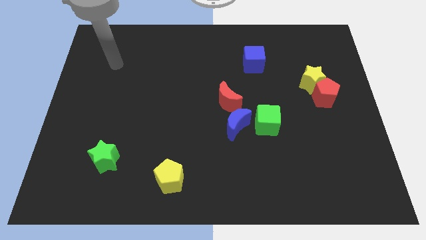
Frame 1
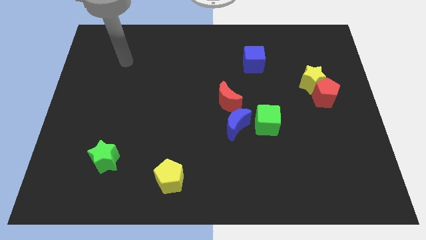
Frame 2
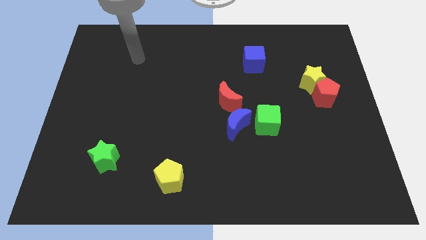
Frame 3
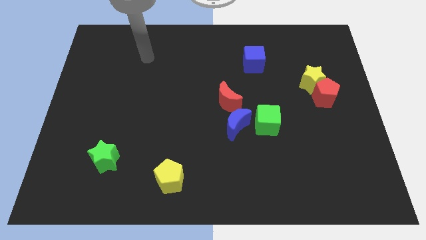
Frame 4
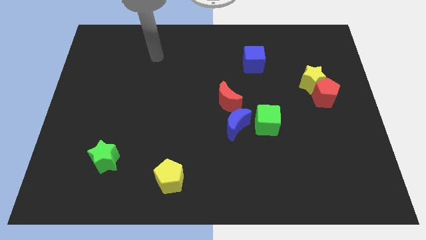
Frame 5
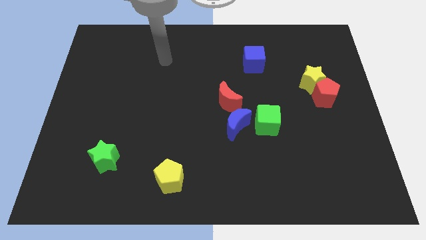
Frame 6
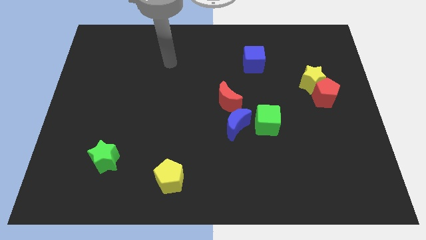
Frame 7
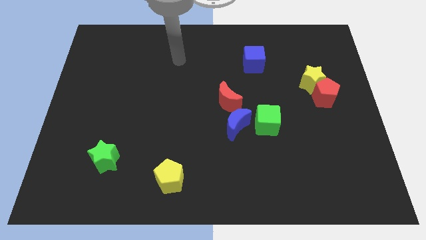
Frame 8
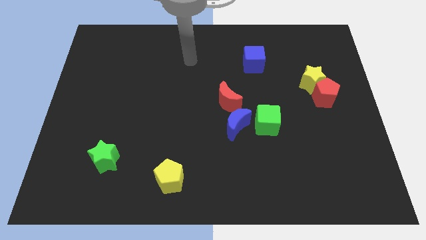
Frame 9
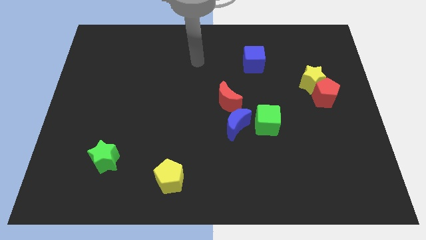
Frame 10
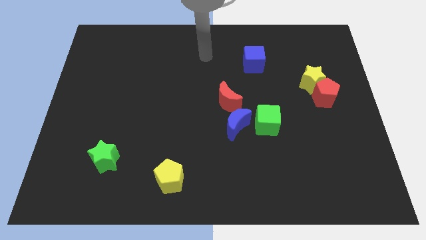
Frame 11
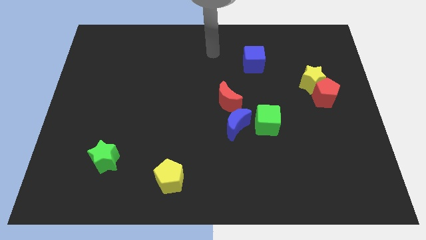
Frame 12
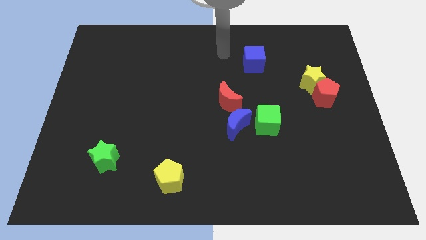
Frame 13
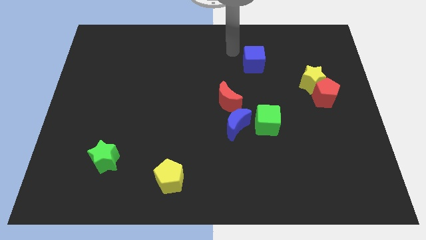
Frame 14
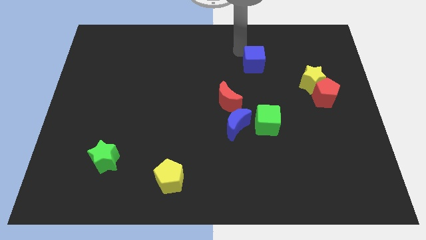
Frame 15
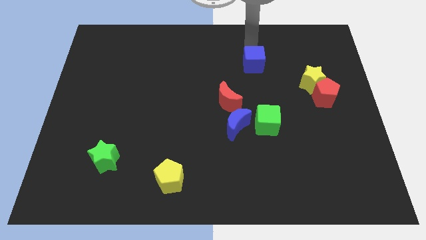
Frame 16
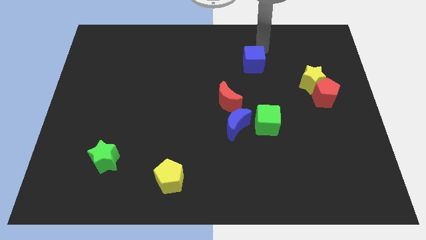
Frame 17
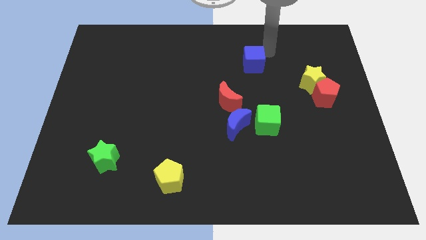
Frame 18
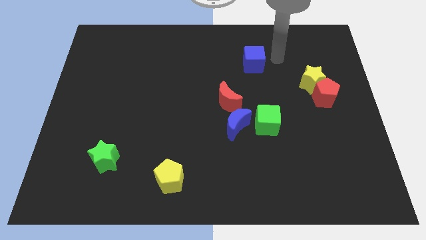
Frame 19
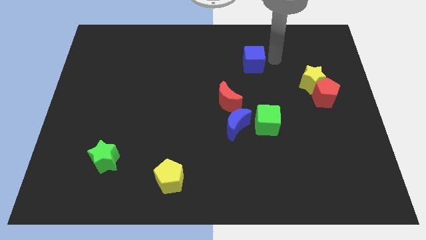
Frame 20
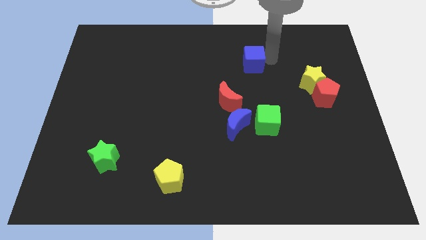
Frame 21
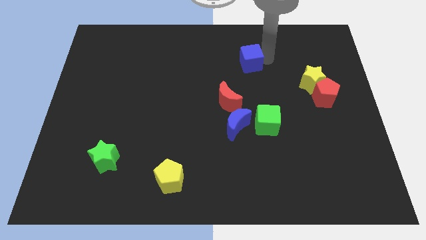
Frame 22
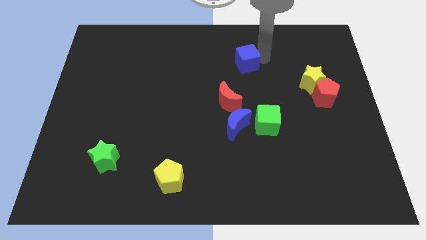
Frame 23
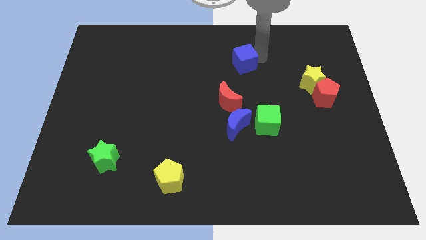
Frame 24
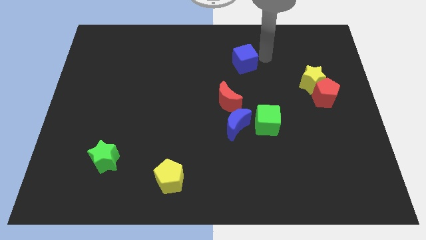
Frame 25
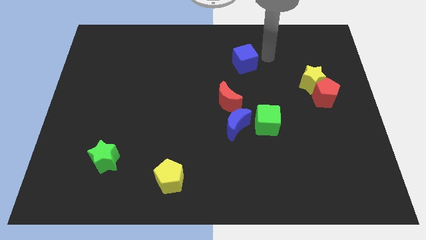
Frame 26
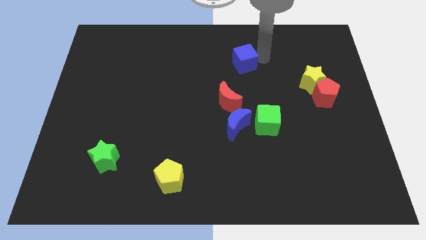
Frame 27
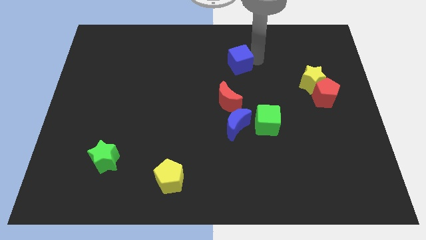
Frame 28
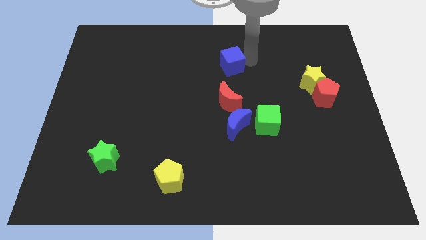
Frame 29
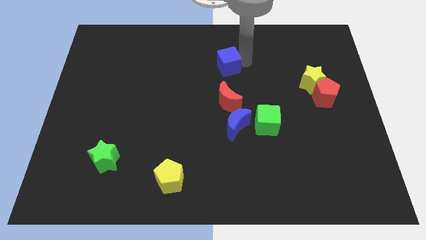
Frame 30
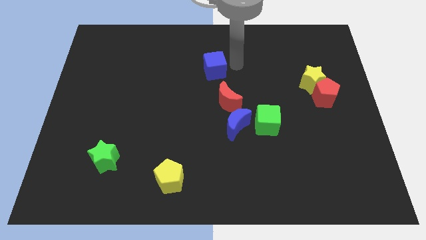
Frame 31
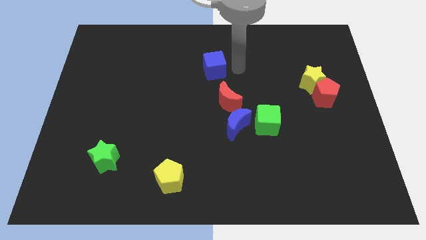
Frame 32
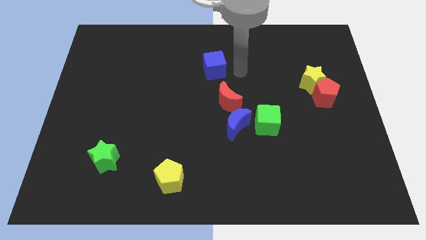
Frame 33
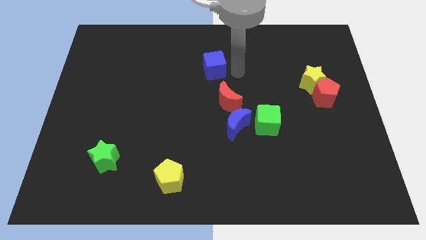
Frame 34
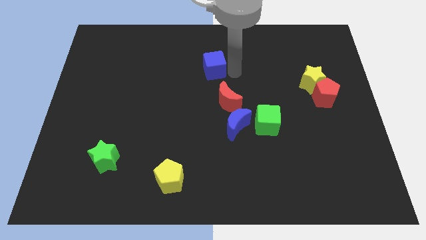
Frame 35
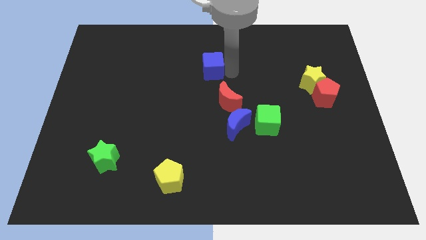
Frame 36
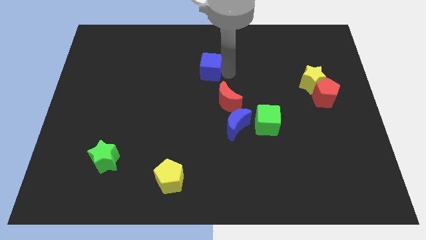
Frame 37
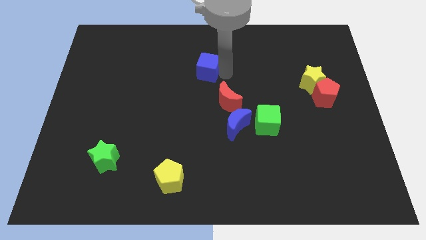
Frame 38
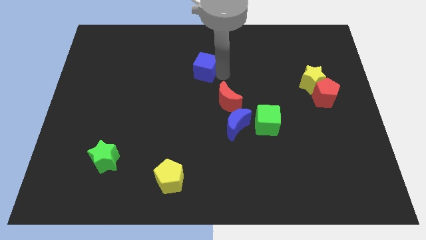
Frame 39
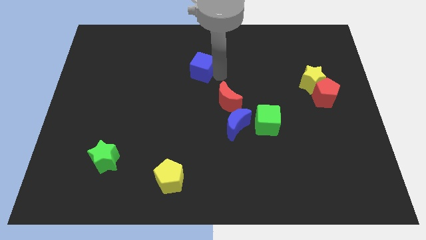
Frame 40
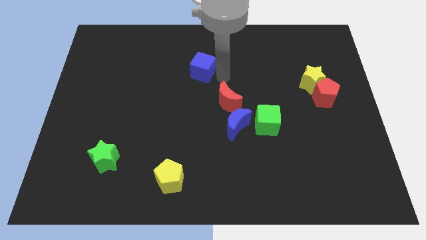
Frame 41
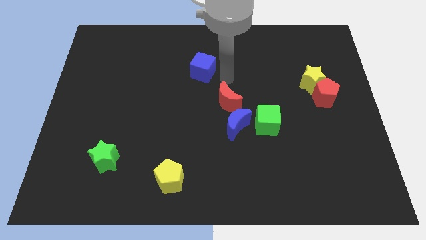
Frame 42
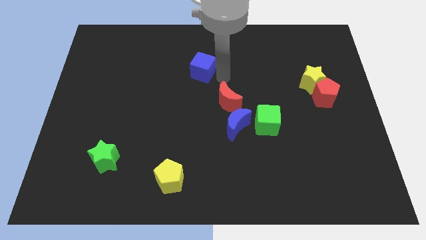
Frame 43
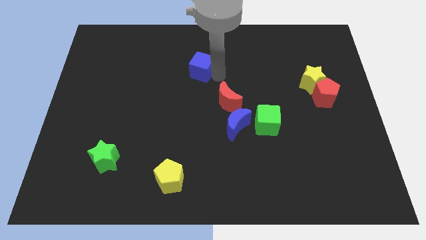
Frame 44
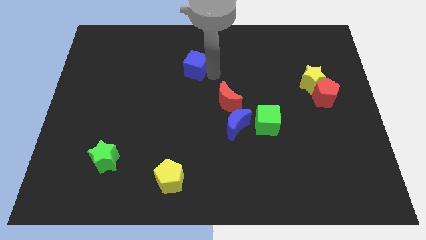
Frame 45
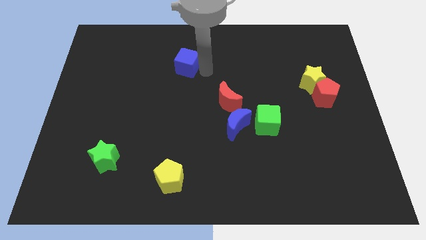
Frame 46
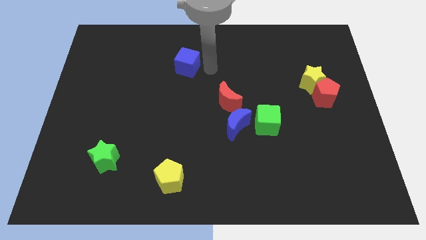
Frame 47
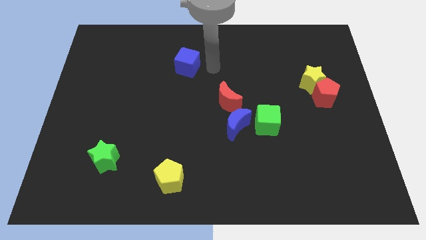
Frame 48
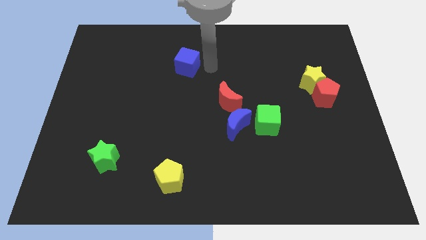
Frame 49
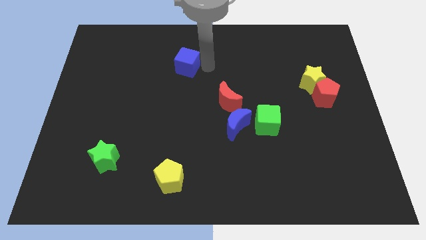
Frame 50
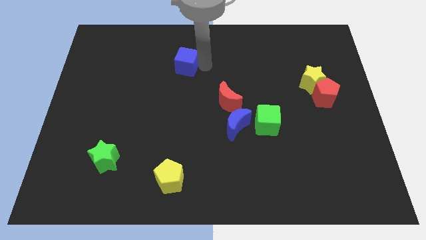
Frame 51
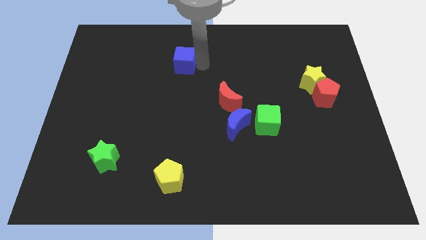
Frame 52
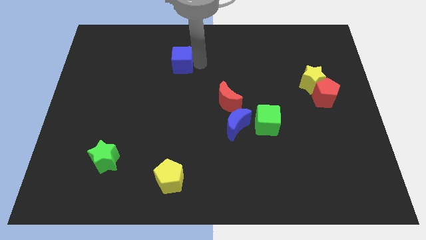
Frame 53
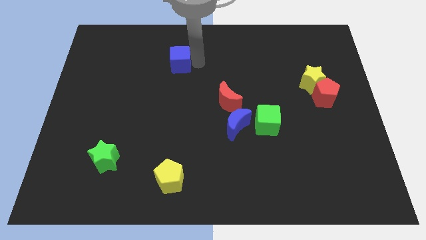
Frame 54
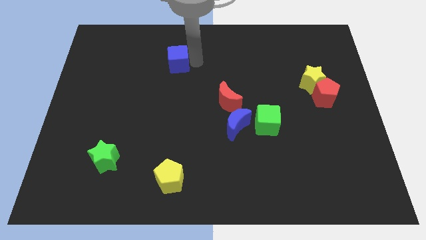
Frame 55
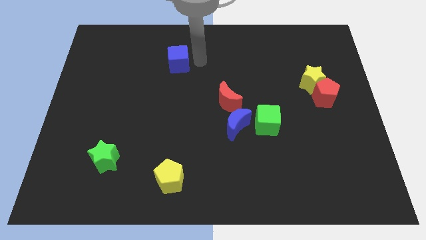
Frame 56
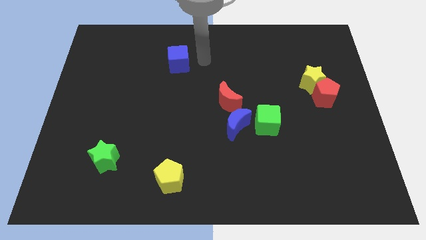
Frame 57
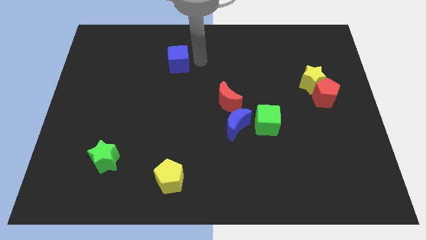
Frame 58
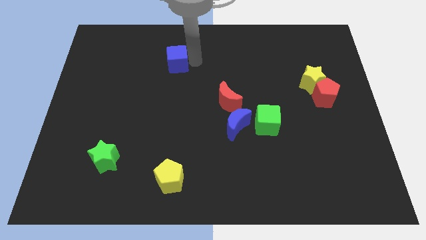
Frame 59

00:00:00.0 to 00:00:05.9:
move the blue cube to the left

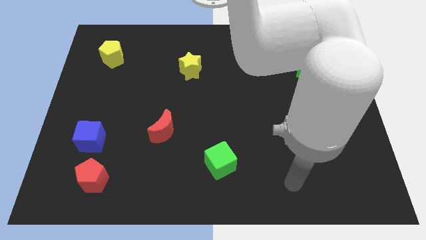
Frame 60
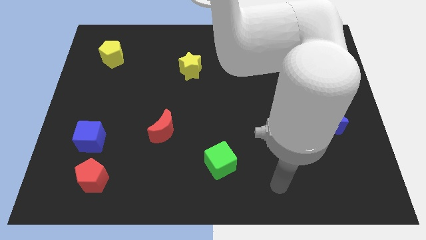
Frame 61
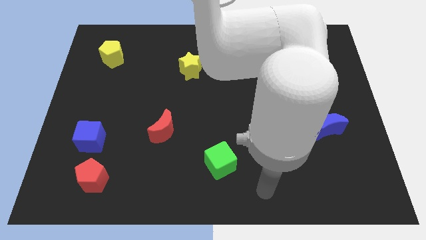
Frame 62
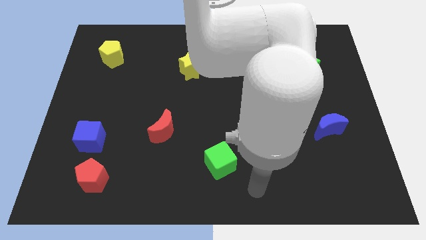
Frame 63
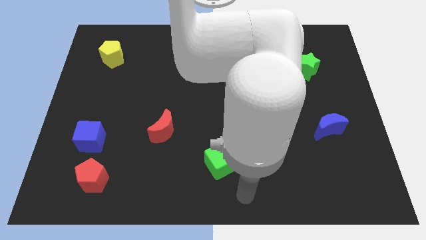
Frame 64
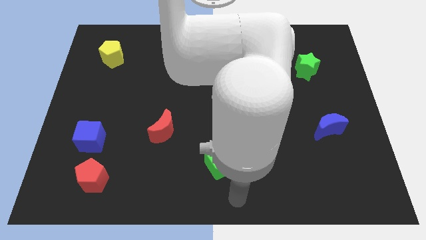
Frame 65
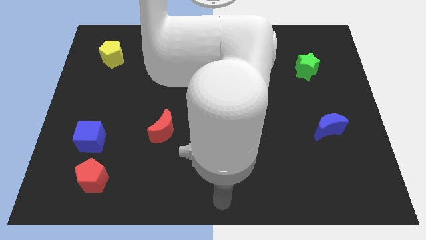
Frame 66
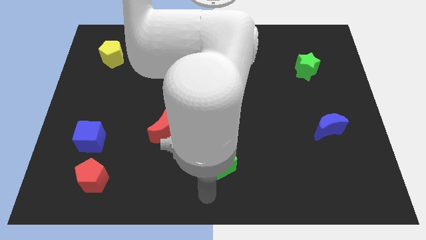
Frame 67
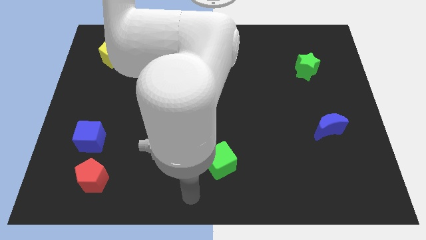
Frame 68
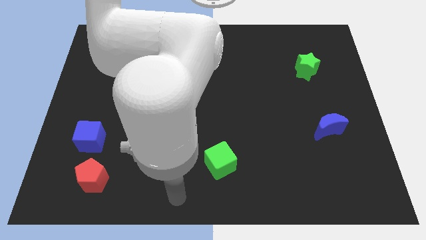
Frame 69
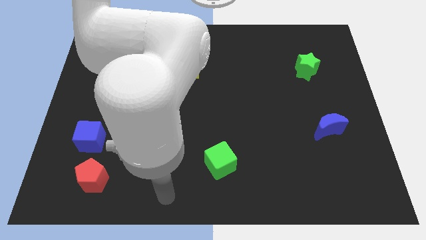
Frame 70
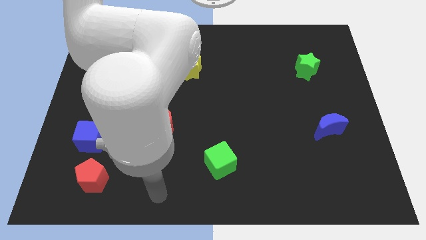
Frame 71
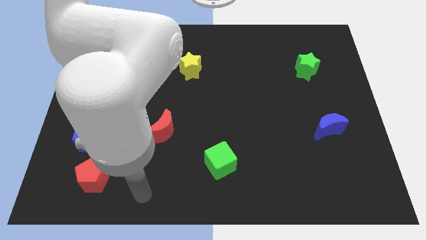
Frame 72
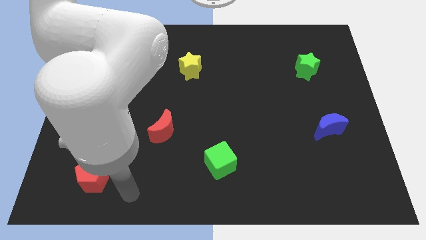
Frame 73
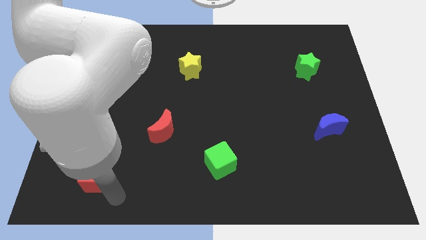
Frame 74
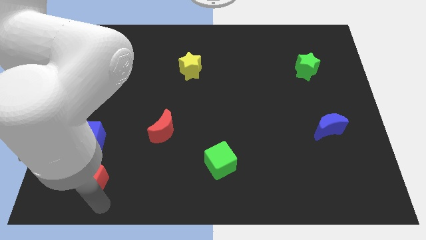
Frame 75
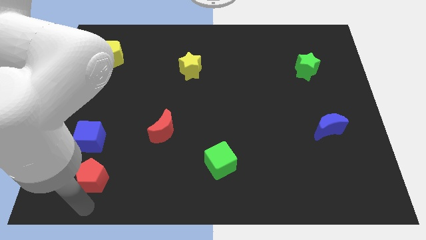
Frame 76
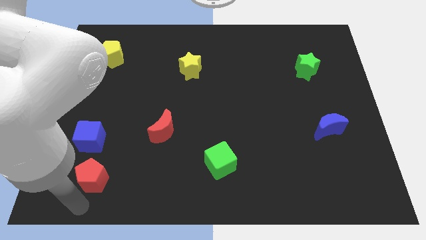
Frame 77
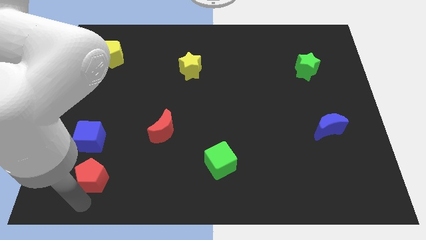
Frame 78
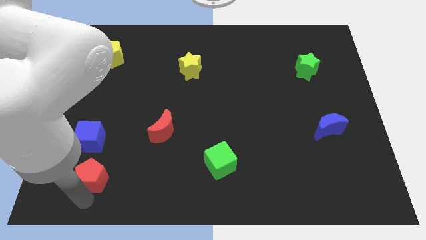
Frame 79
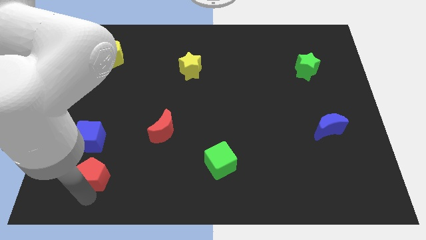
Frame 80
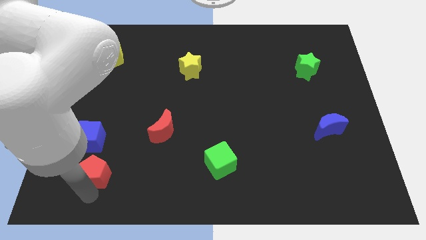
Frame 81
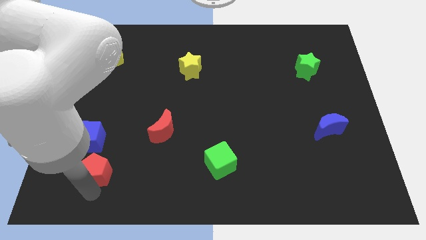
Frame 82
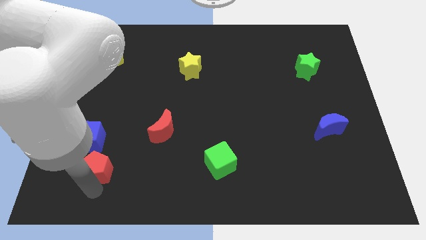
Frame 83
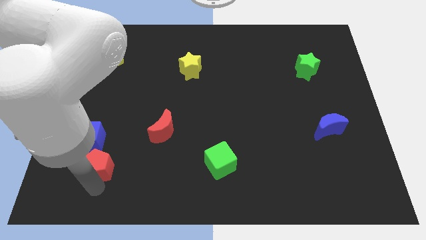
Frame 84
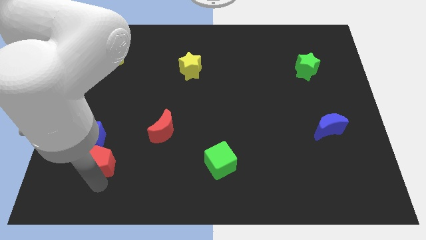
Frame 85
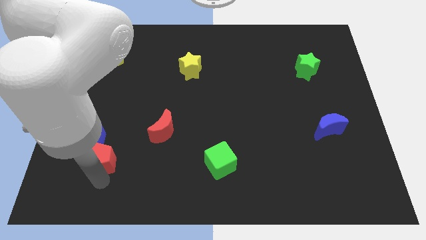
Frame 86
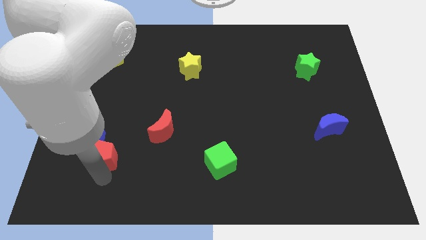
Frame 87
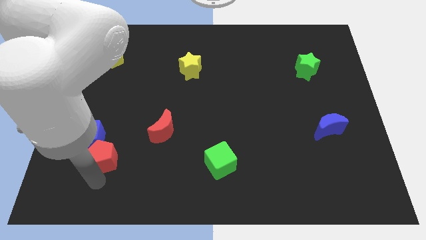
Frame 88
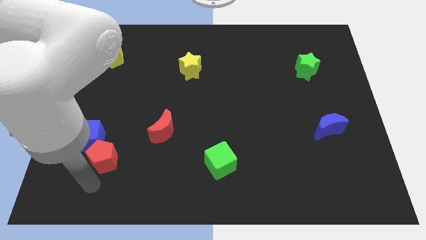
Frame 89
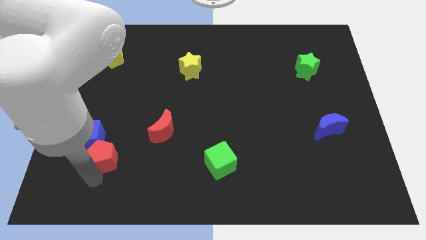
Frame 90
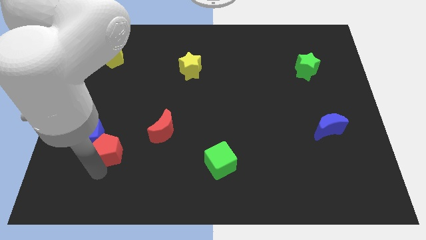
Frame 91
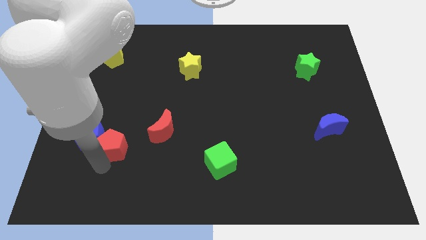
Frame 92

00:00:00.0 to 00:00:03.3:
slightly move the red pentagon up
